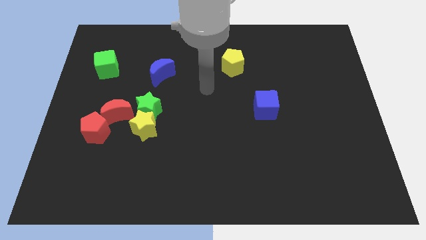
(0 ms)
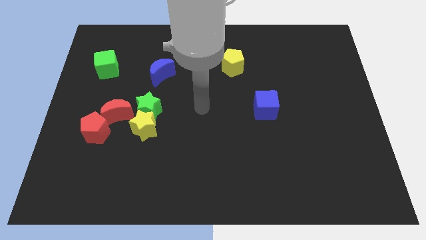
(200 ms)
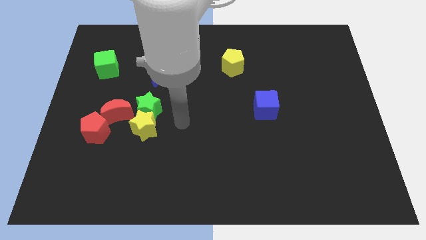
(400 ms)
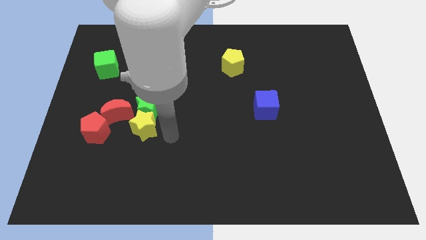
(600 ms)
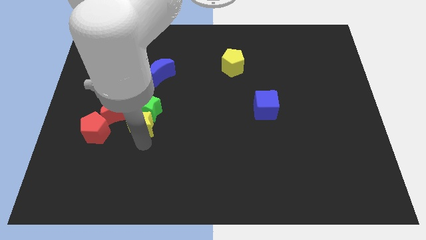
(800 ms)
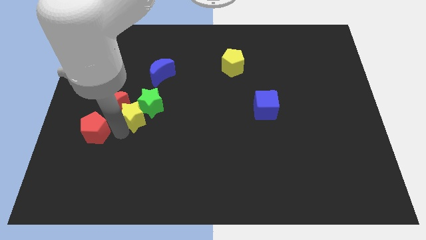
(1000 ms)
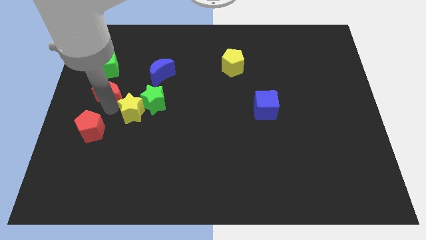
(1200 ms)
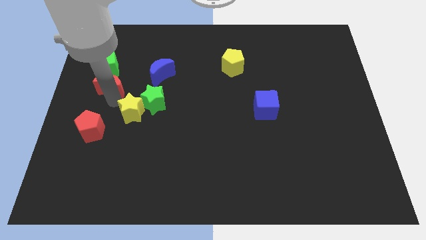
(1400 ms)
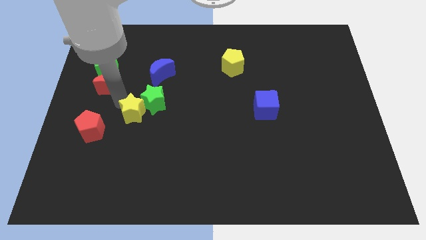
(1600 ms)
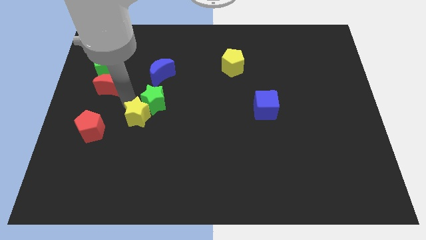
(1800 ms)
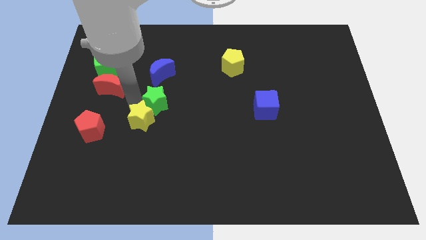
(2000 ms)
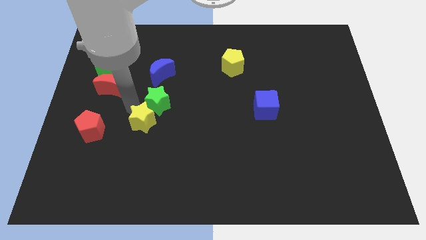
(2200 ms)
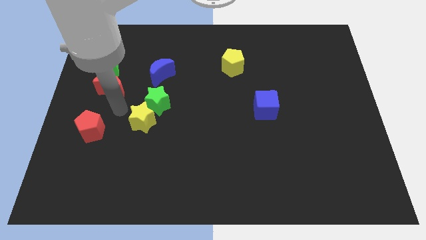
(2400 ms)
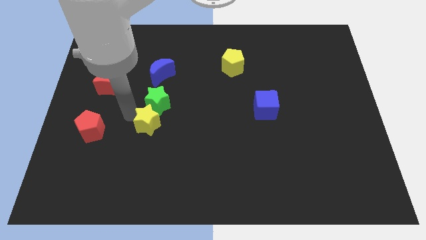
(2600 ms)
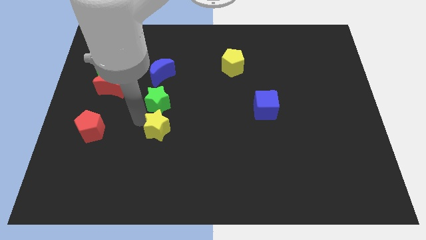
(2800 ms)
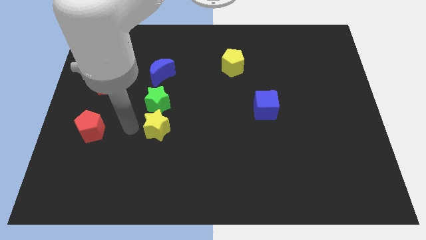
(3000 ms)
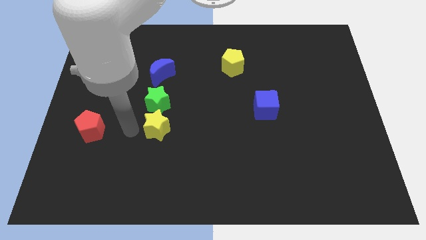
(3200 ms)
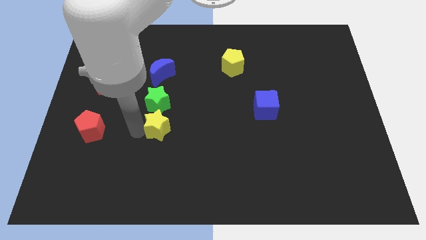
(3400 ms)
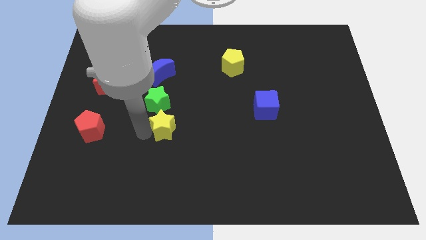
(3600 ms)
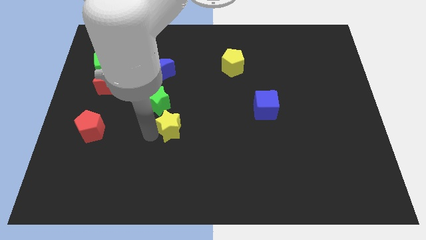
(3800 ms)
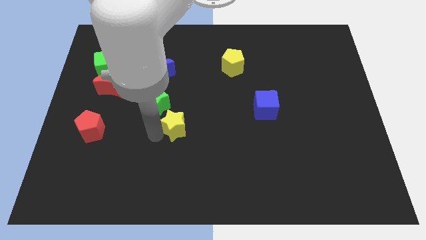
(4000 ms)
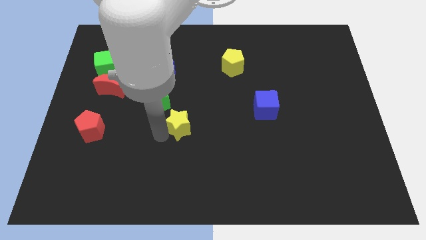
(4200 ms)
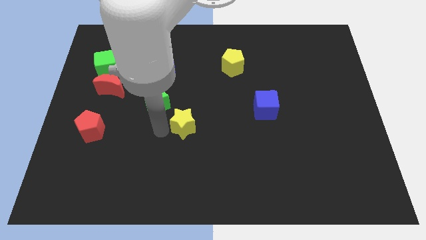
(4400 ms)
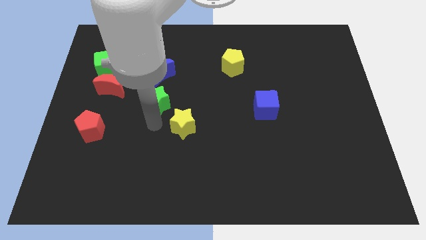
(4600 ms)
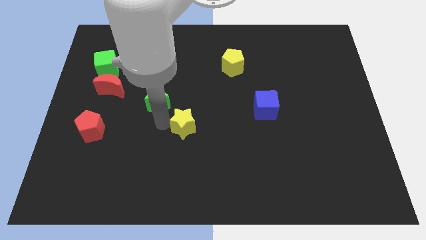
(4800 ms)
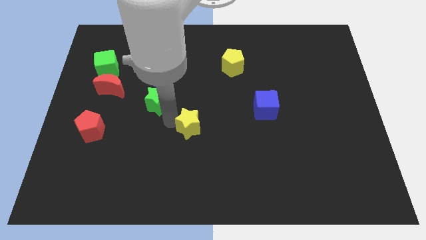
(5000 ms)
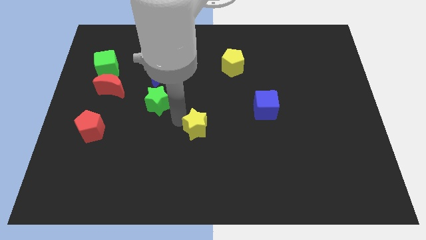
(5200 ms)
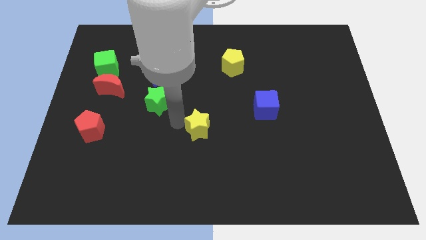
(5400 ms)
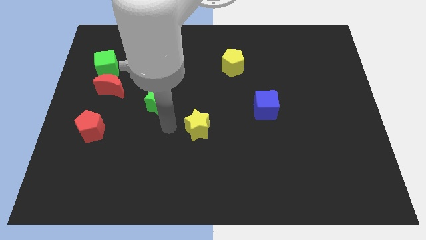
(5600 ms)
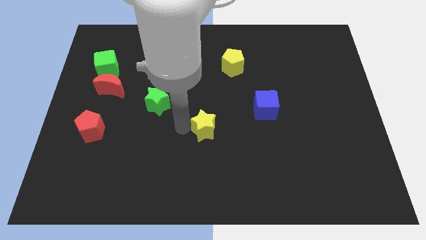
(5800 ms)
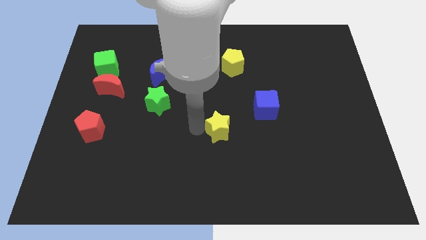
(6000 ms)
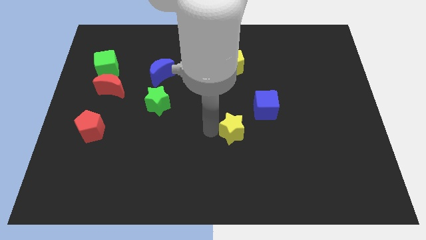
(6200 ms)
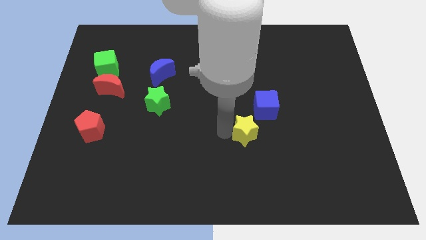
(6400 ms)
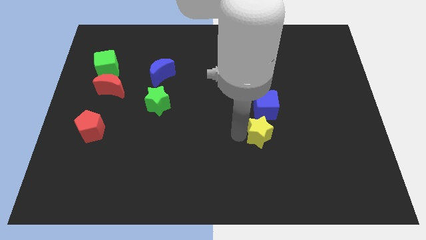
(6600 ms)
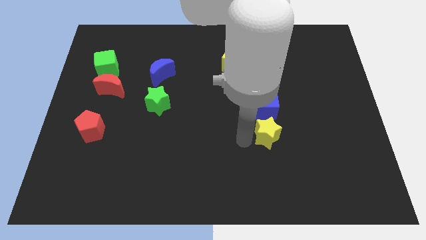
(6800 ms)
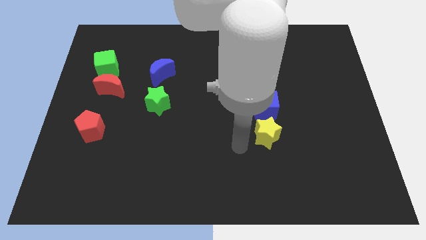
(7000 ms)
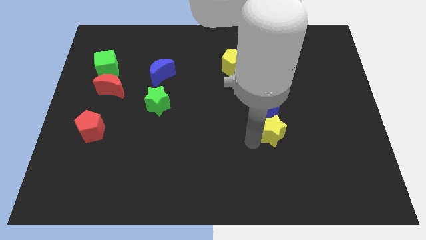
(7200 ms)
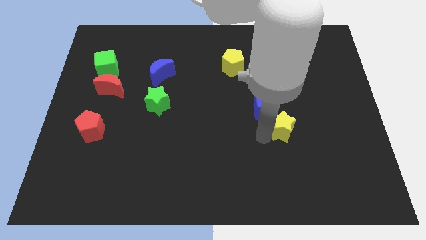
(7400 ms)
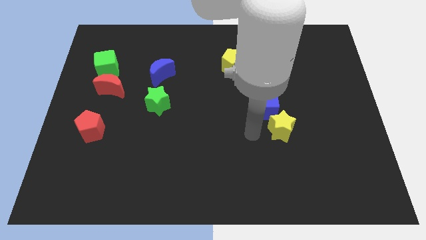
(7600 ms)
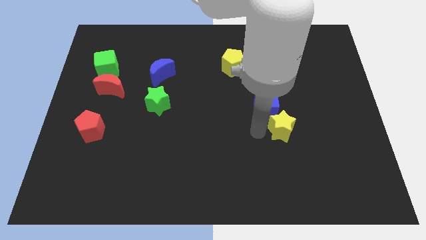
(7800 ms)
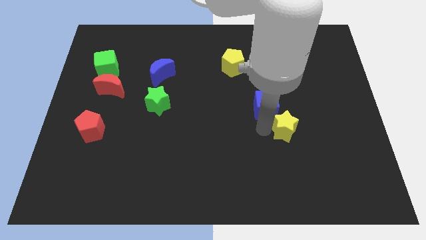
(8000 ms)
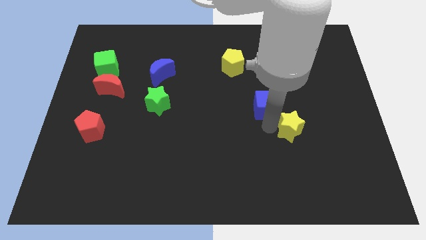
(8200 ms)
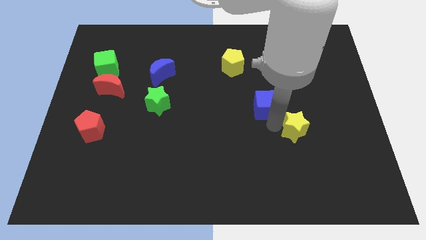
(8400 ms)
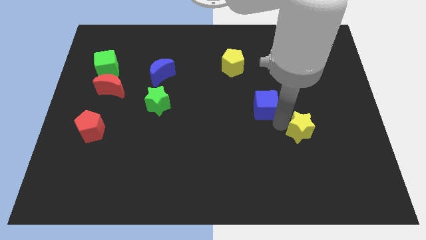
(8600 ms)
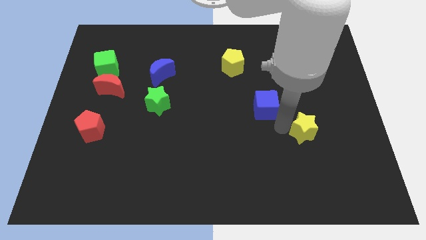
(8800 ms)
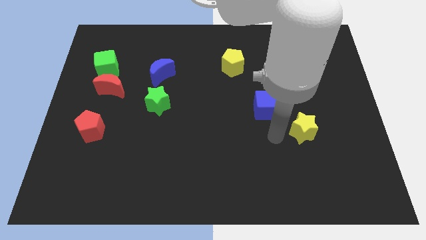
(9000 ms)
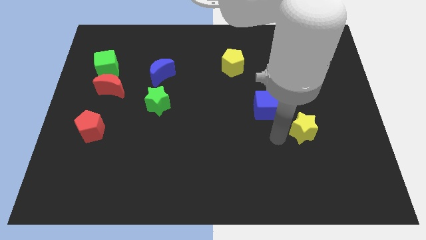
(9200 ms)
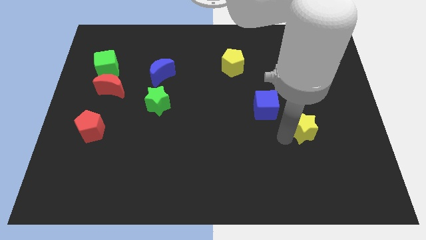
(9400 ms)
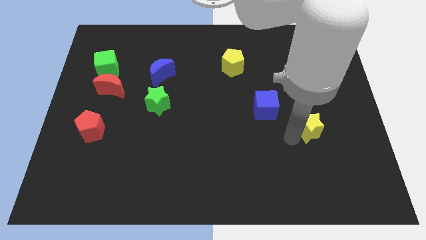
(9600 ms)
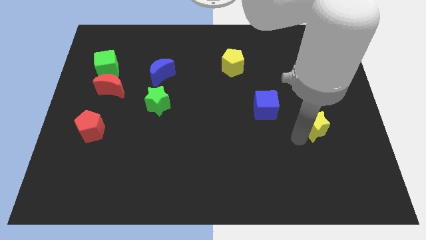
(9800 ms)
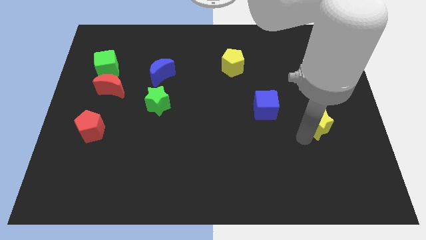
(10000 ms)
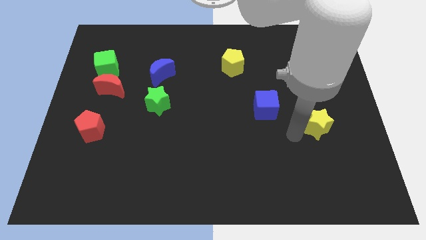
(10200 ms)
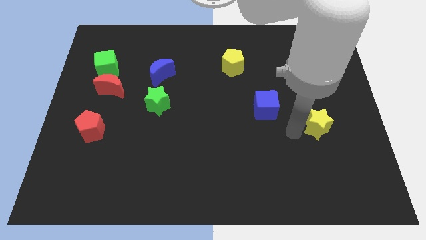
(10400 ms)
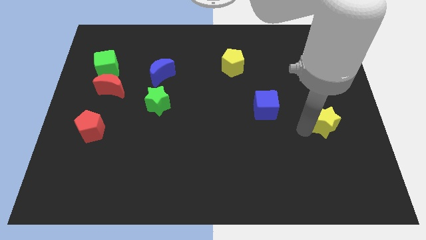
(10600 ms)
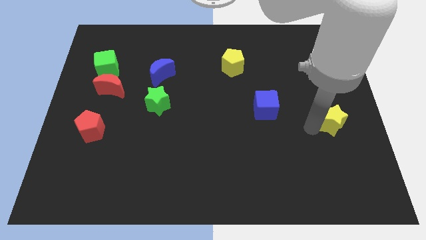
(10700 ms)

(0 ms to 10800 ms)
slide the yellow star to the right side

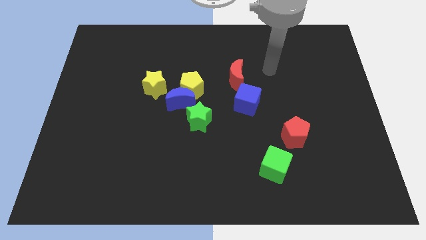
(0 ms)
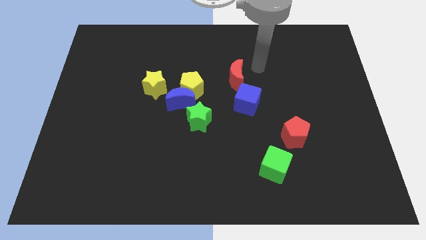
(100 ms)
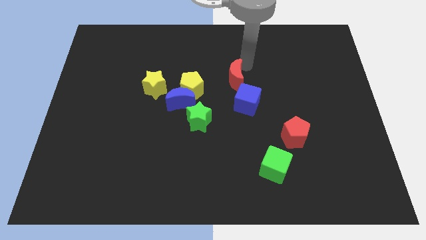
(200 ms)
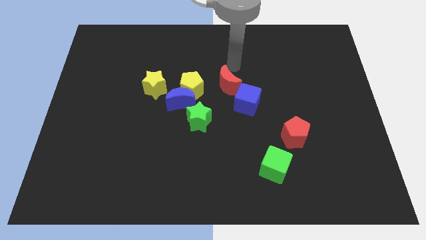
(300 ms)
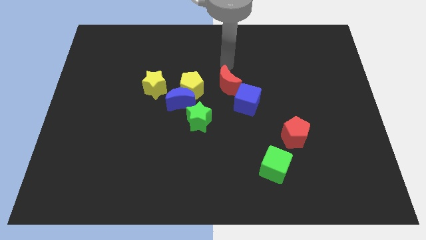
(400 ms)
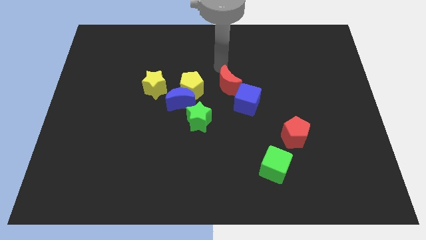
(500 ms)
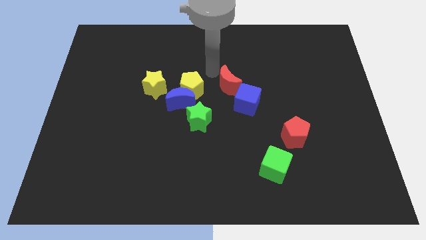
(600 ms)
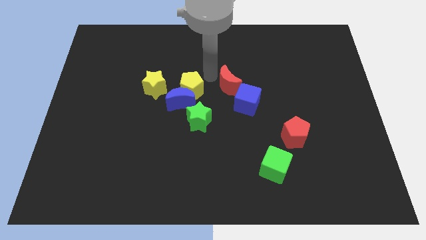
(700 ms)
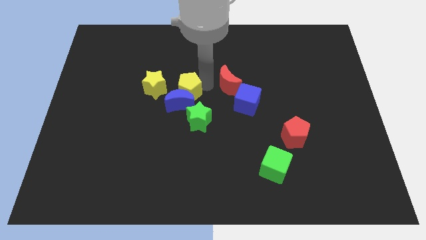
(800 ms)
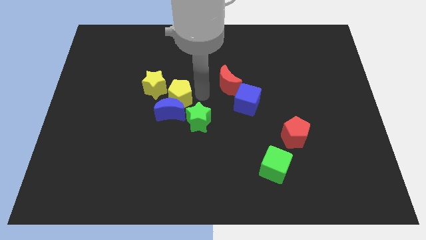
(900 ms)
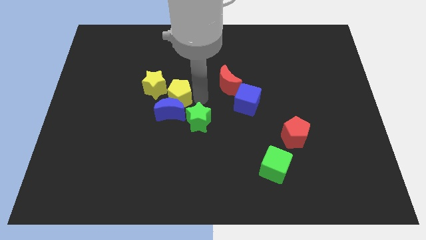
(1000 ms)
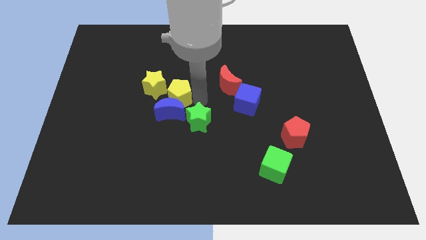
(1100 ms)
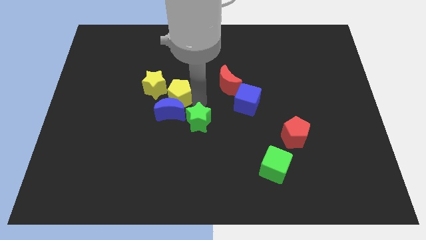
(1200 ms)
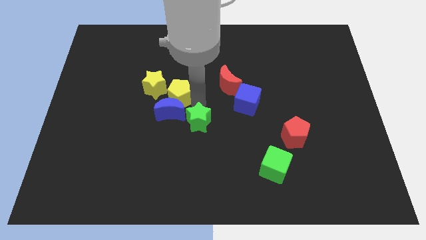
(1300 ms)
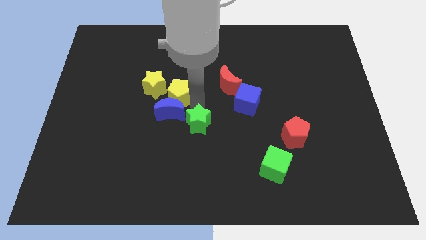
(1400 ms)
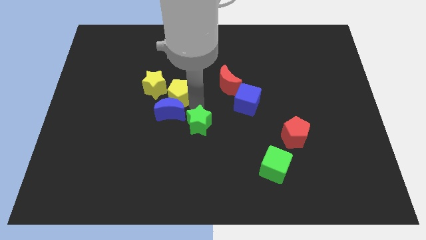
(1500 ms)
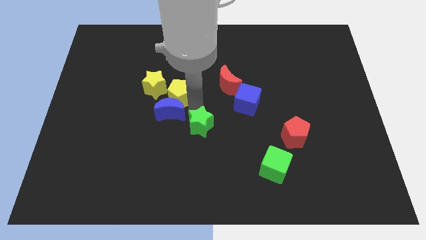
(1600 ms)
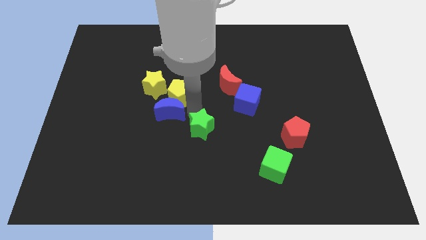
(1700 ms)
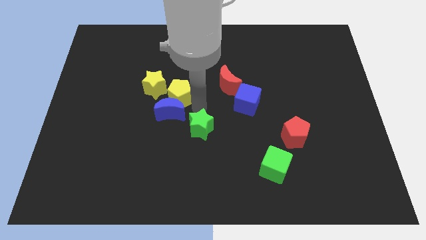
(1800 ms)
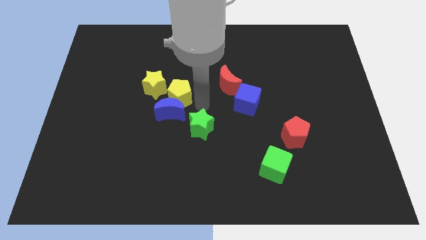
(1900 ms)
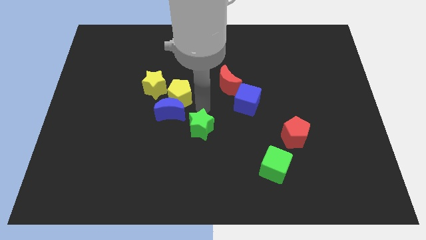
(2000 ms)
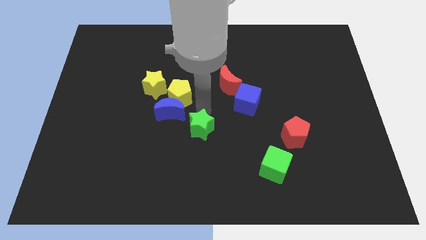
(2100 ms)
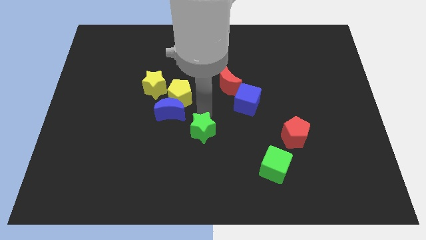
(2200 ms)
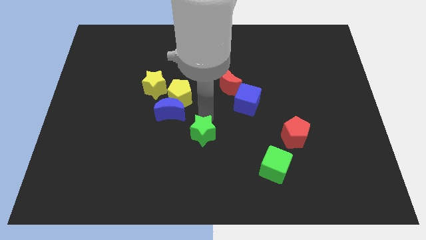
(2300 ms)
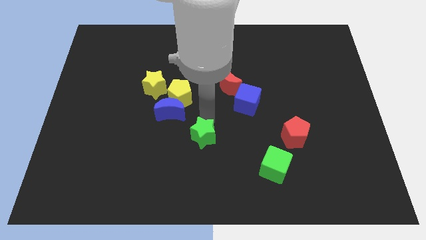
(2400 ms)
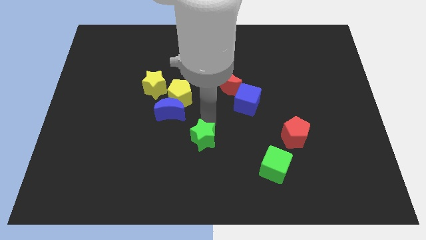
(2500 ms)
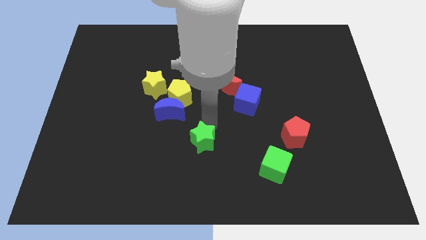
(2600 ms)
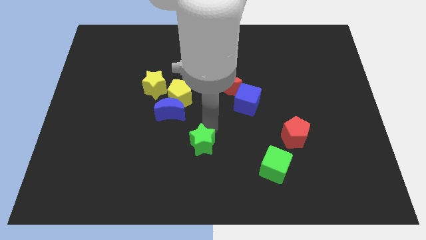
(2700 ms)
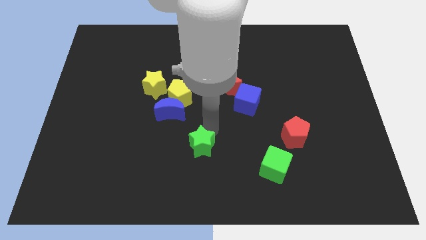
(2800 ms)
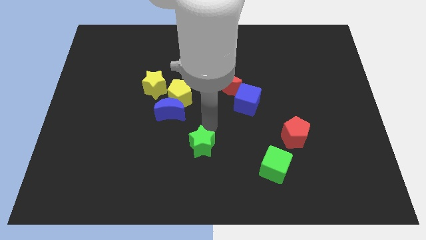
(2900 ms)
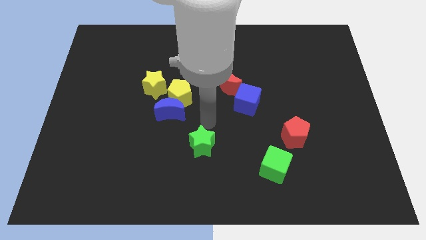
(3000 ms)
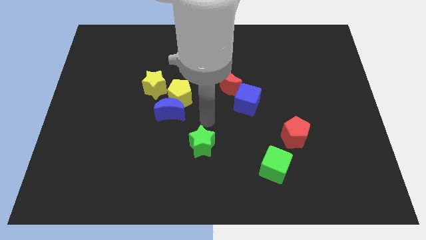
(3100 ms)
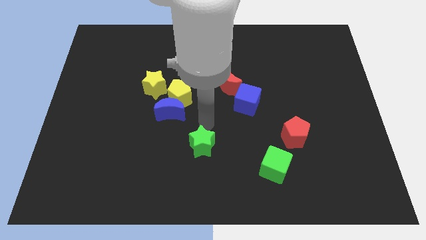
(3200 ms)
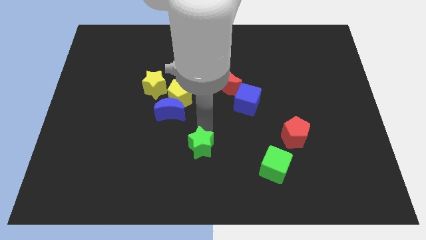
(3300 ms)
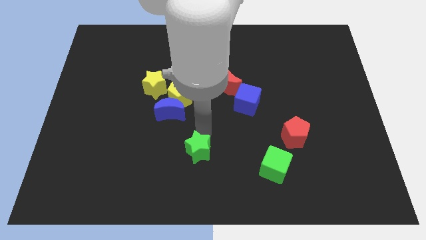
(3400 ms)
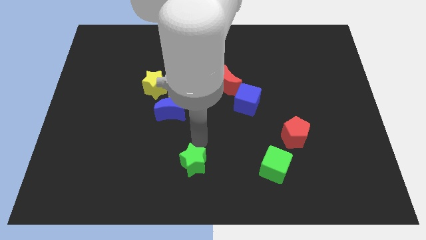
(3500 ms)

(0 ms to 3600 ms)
move the green star to the bottom
